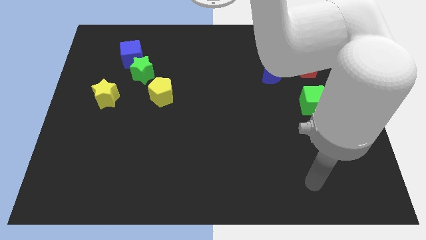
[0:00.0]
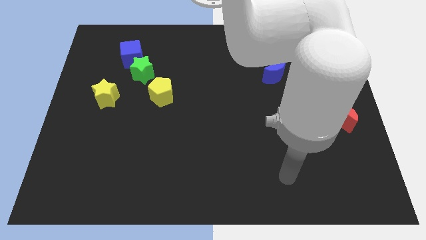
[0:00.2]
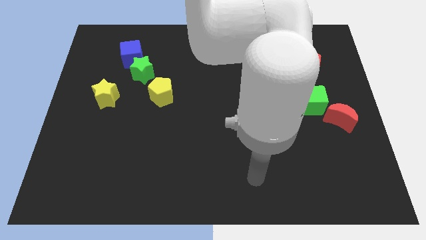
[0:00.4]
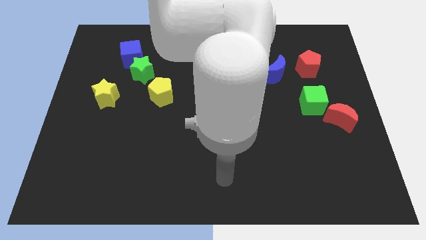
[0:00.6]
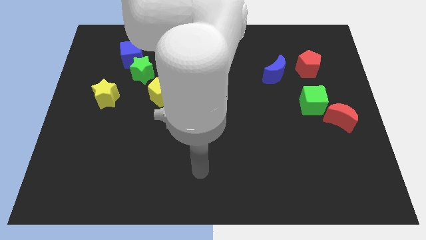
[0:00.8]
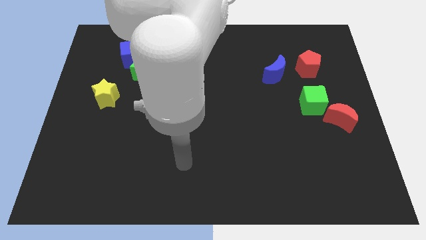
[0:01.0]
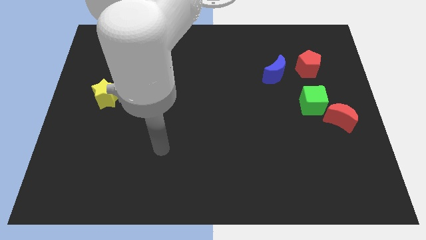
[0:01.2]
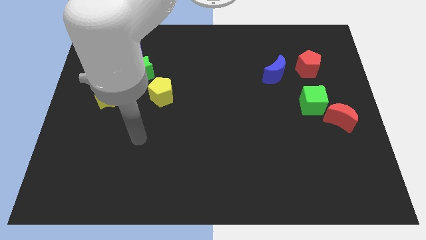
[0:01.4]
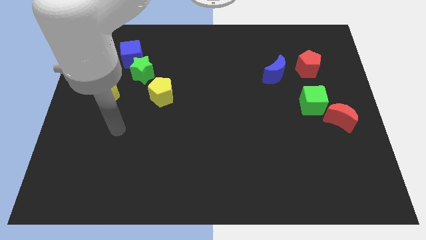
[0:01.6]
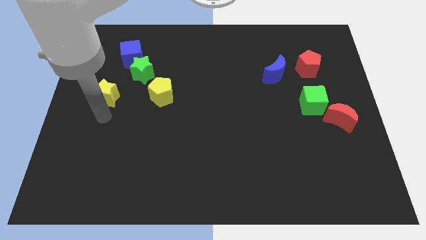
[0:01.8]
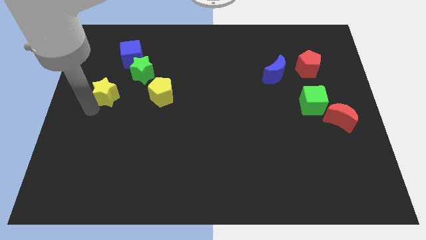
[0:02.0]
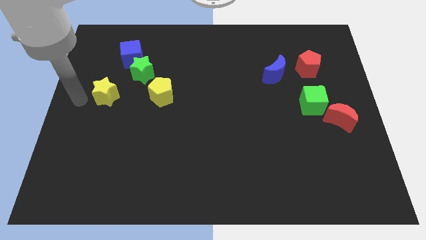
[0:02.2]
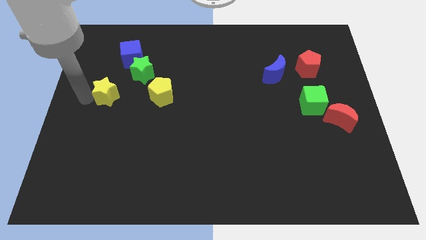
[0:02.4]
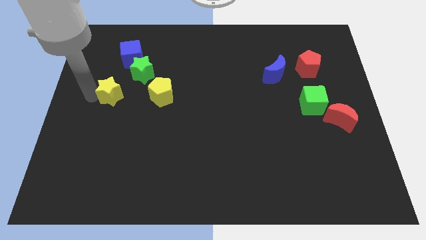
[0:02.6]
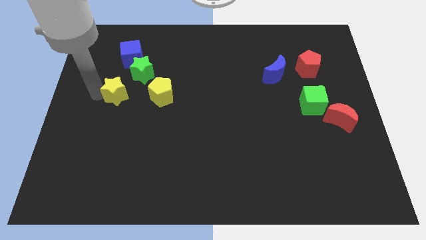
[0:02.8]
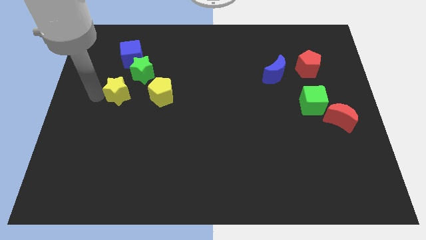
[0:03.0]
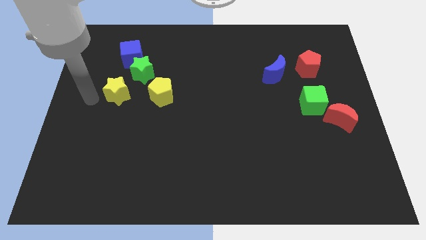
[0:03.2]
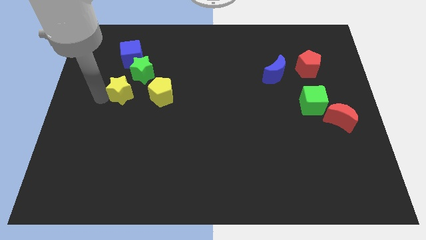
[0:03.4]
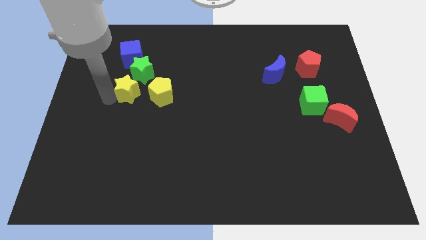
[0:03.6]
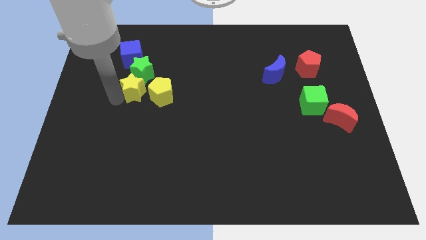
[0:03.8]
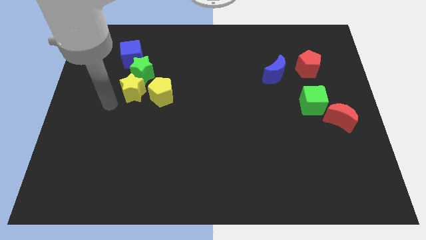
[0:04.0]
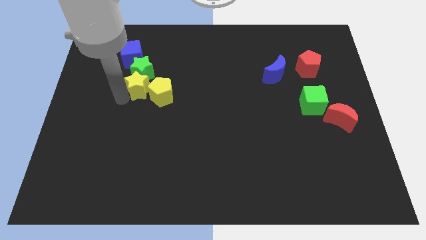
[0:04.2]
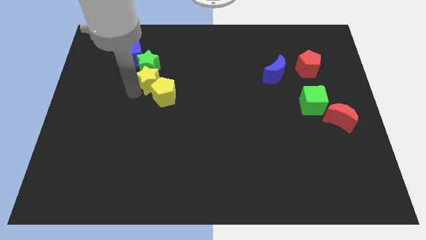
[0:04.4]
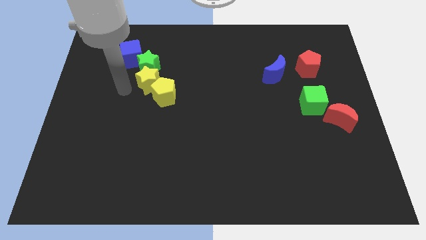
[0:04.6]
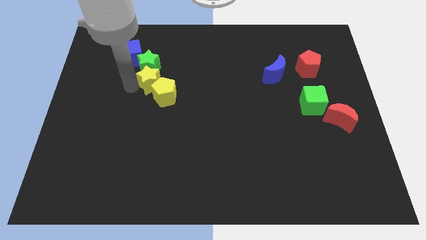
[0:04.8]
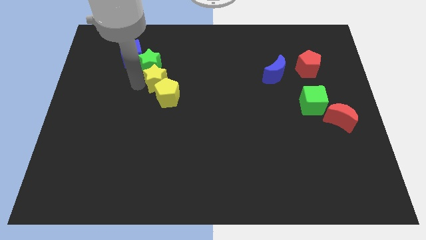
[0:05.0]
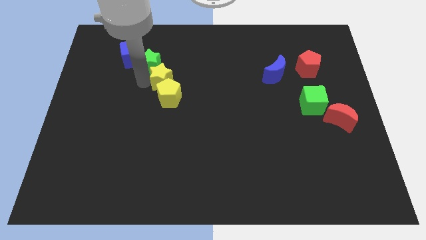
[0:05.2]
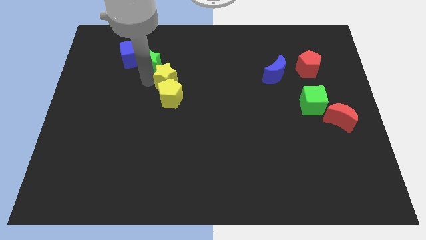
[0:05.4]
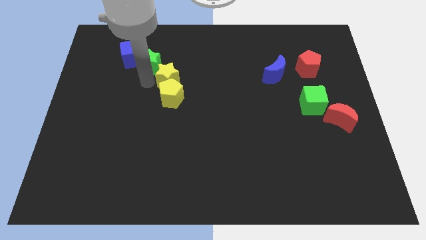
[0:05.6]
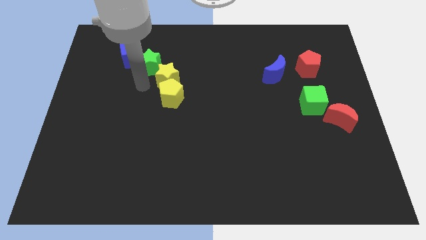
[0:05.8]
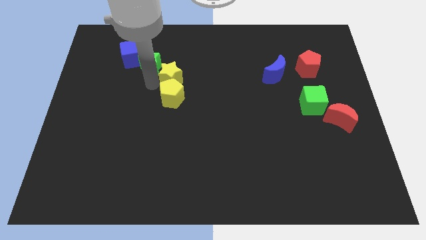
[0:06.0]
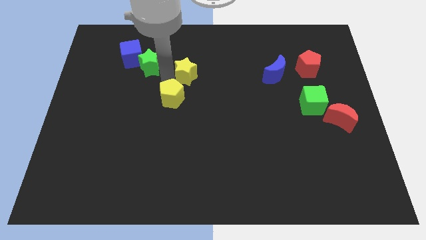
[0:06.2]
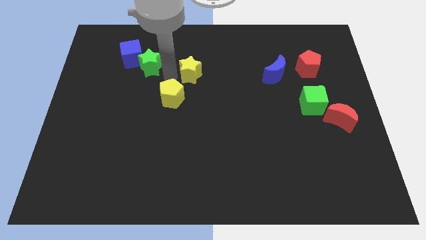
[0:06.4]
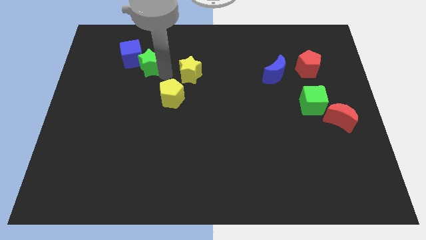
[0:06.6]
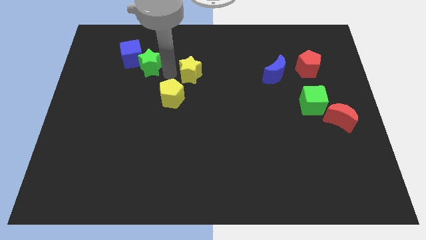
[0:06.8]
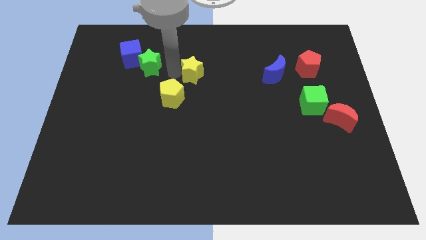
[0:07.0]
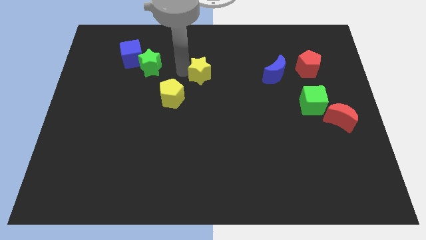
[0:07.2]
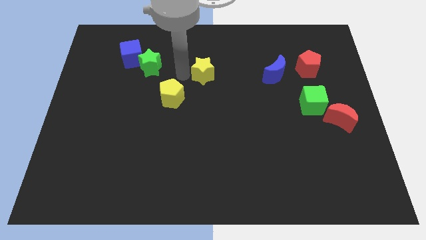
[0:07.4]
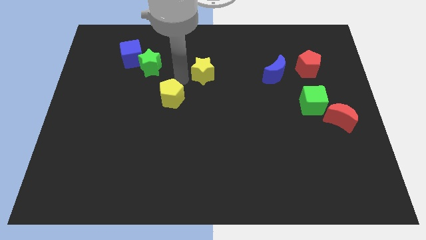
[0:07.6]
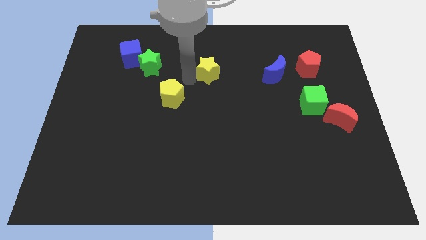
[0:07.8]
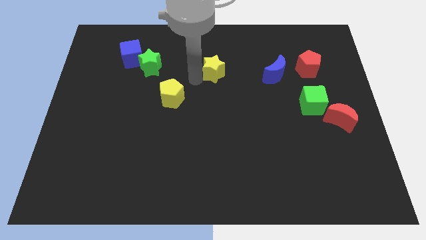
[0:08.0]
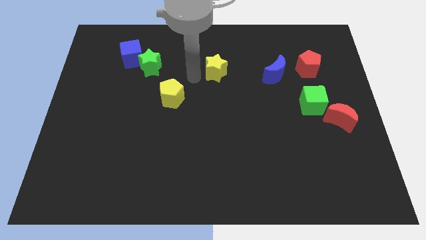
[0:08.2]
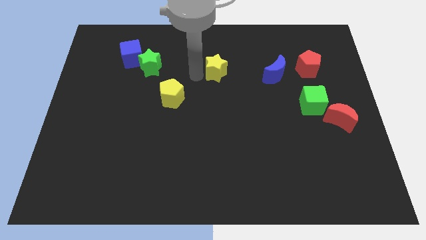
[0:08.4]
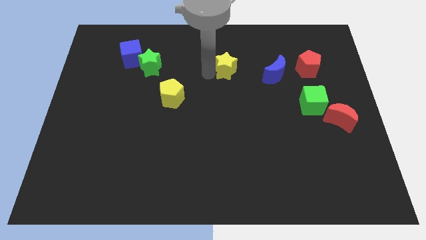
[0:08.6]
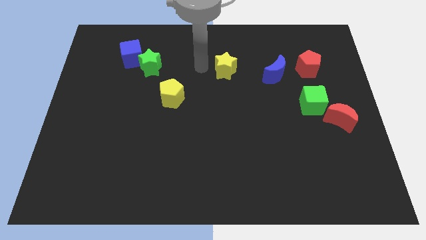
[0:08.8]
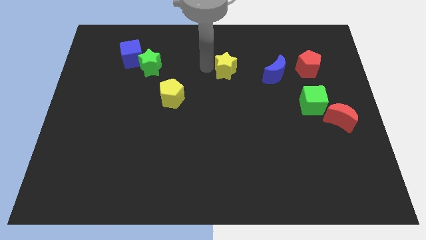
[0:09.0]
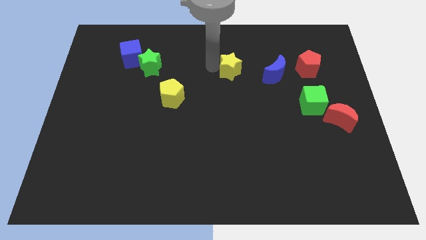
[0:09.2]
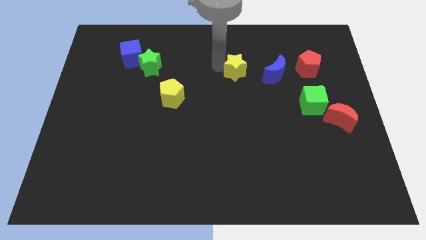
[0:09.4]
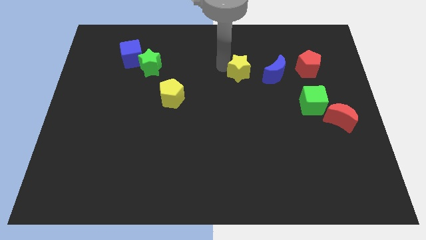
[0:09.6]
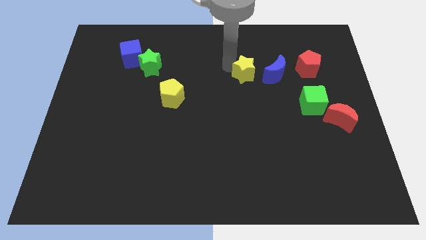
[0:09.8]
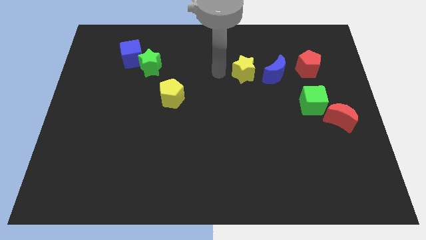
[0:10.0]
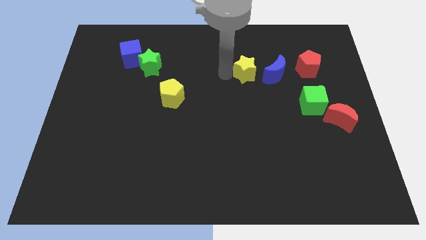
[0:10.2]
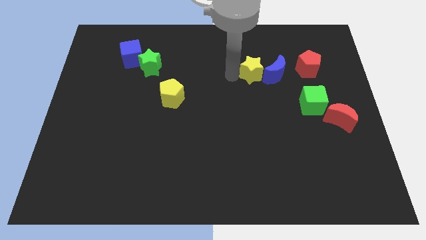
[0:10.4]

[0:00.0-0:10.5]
put the yellow star towards the blue moon

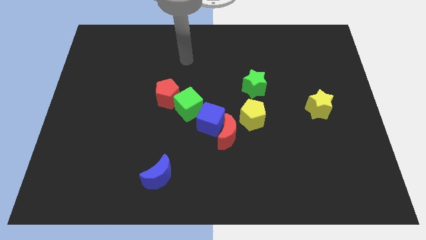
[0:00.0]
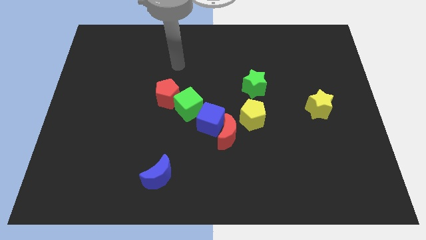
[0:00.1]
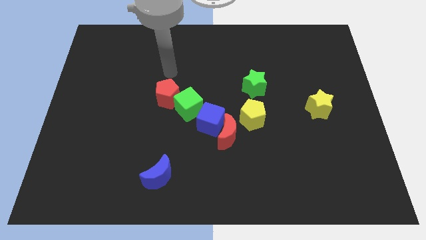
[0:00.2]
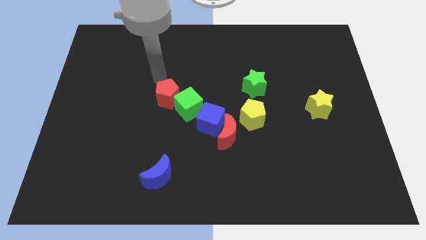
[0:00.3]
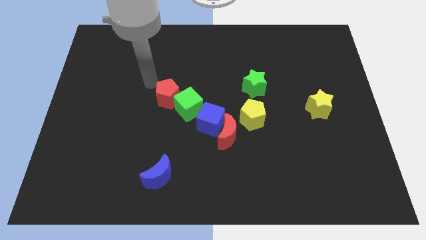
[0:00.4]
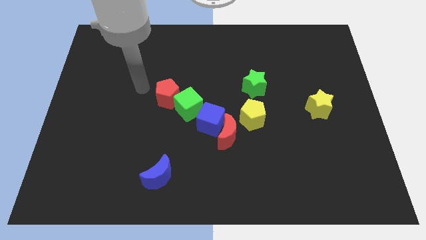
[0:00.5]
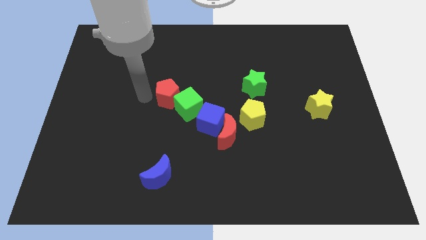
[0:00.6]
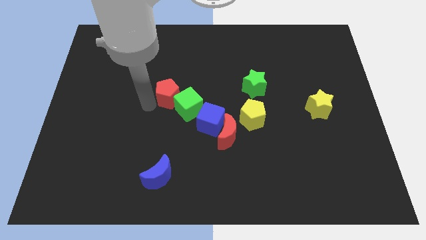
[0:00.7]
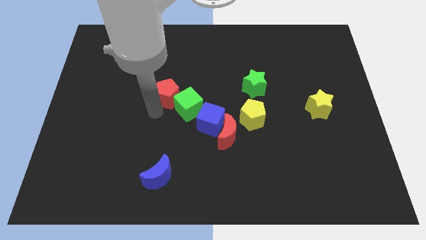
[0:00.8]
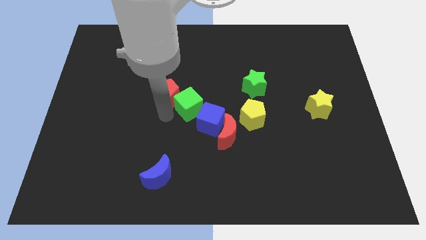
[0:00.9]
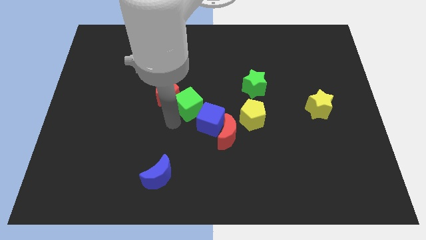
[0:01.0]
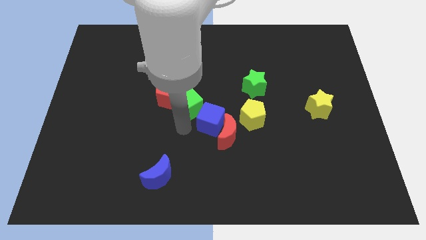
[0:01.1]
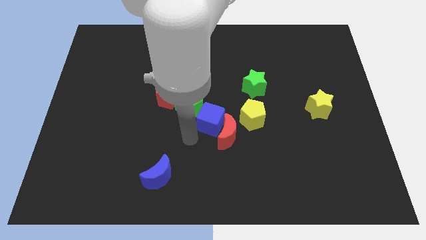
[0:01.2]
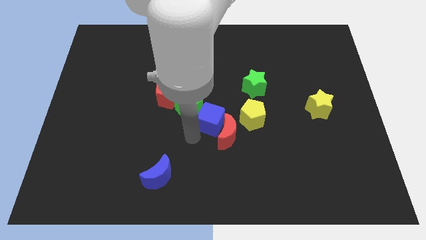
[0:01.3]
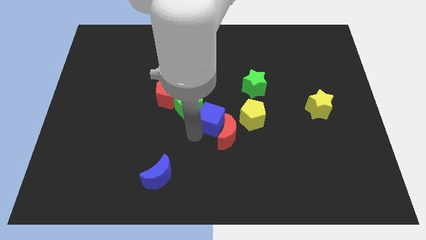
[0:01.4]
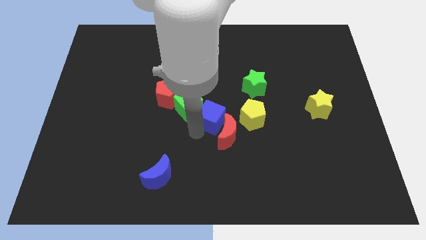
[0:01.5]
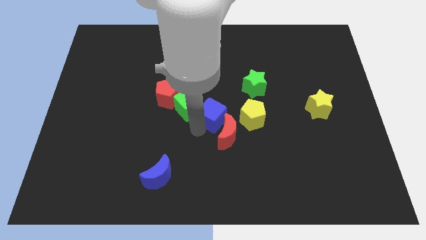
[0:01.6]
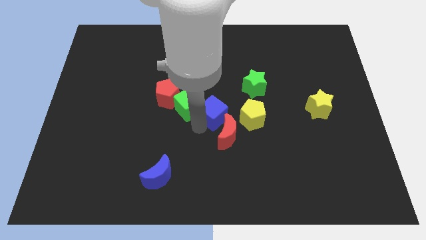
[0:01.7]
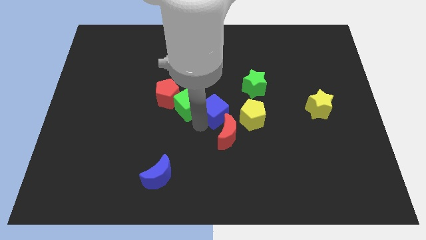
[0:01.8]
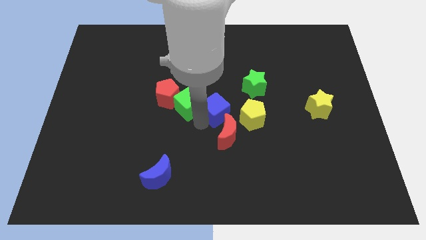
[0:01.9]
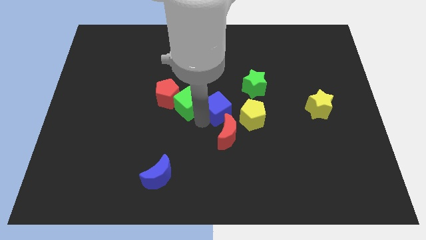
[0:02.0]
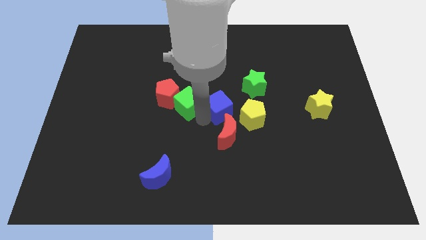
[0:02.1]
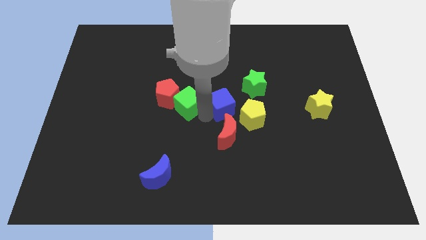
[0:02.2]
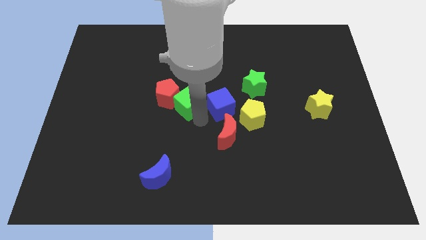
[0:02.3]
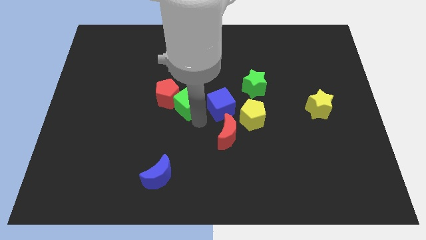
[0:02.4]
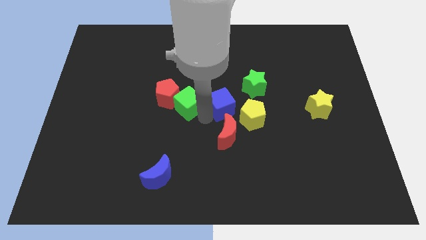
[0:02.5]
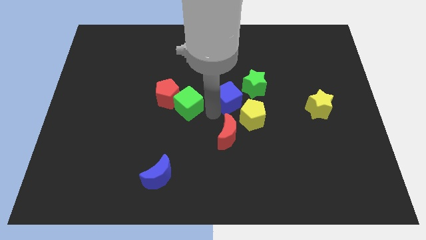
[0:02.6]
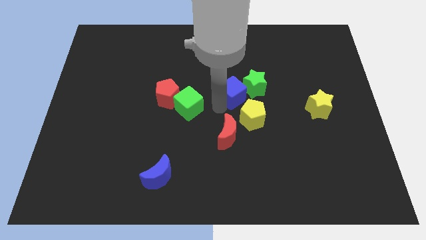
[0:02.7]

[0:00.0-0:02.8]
move the blue cube to the green star
